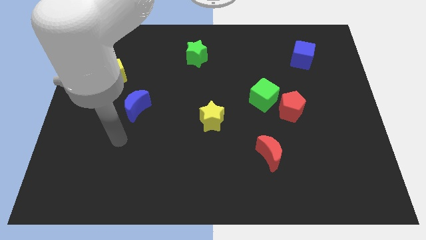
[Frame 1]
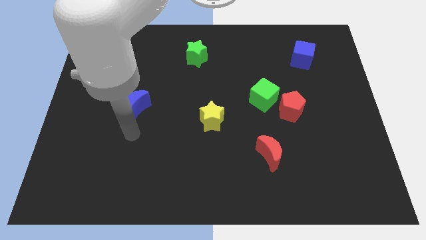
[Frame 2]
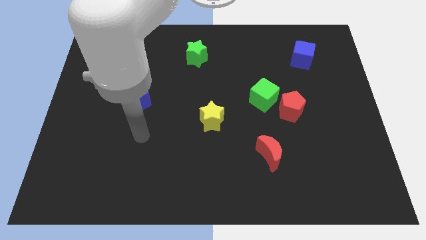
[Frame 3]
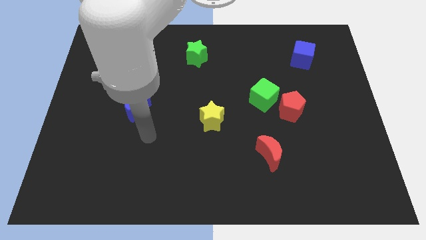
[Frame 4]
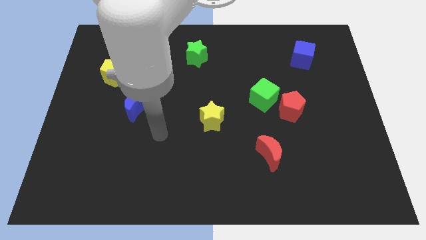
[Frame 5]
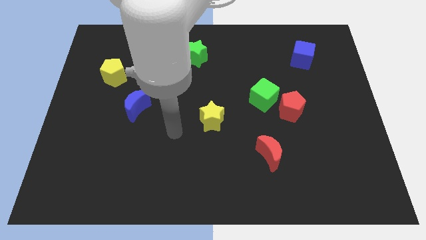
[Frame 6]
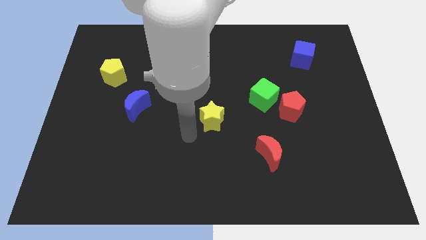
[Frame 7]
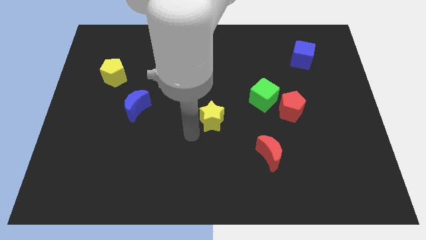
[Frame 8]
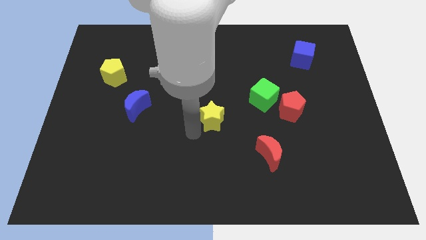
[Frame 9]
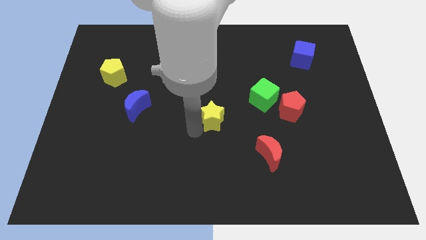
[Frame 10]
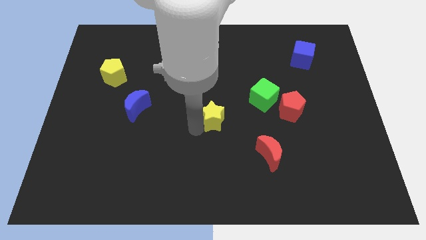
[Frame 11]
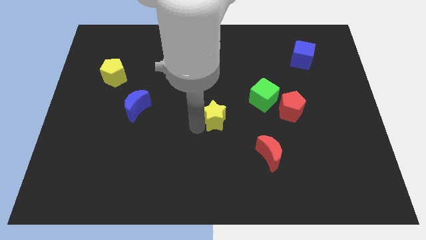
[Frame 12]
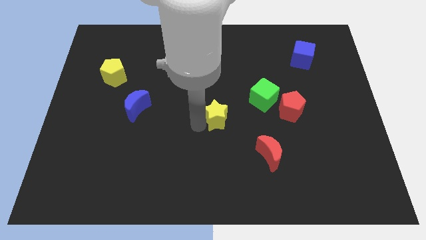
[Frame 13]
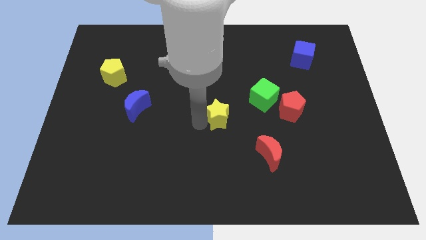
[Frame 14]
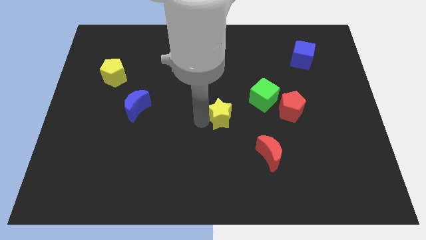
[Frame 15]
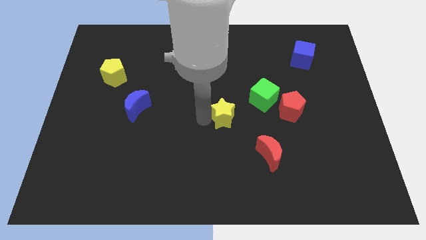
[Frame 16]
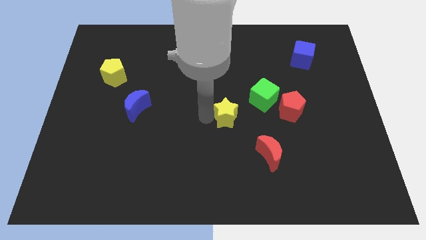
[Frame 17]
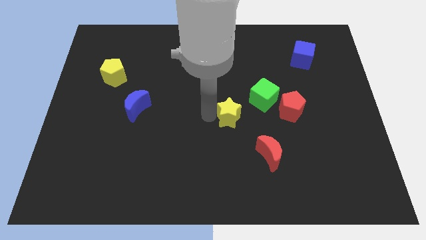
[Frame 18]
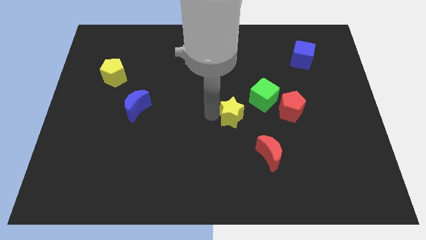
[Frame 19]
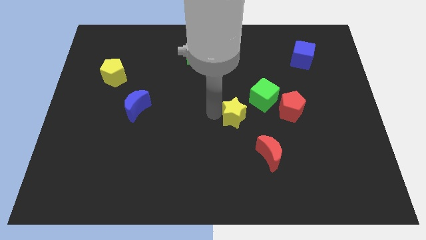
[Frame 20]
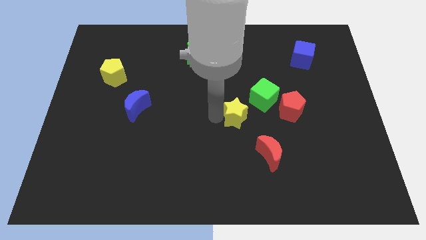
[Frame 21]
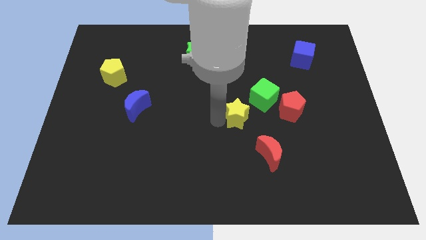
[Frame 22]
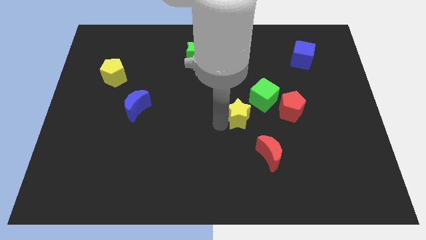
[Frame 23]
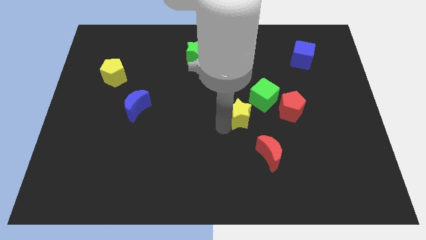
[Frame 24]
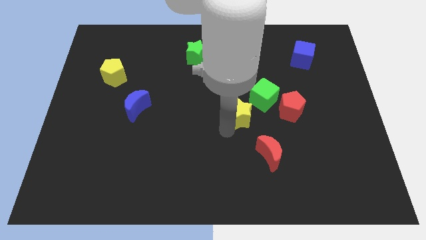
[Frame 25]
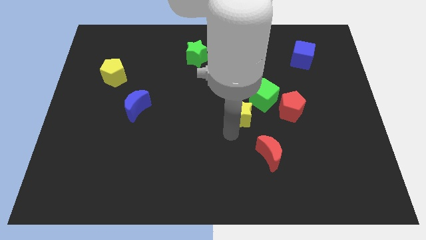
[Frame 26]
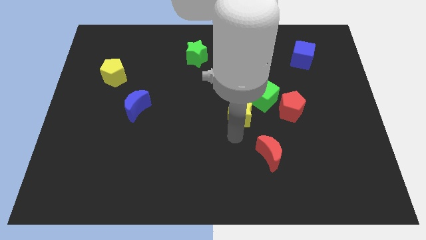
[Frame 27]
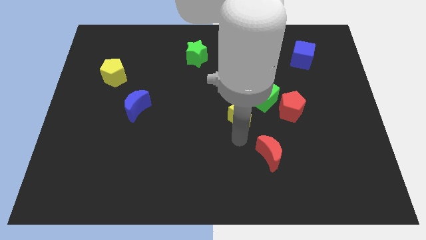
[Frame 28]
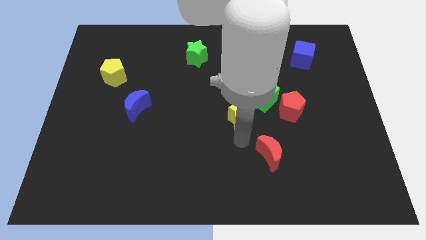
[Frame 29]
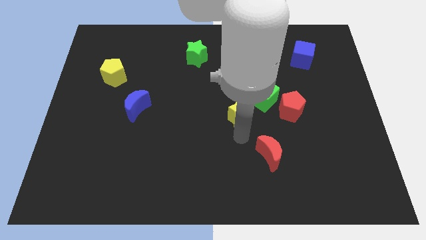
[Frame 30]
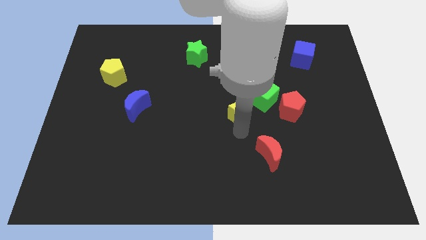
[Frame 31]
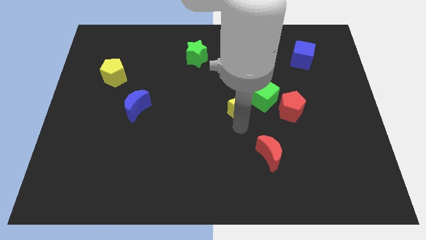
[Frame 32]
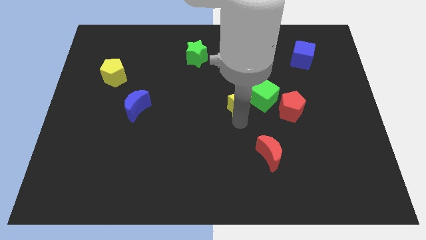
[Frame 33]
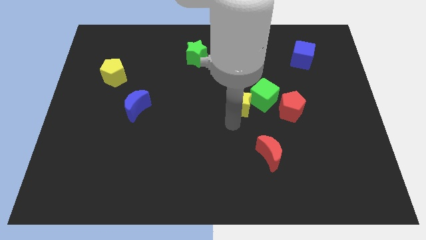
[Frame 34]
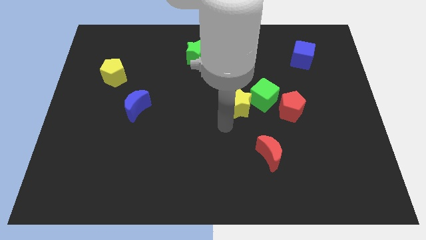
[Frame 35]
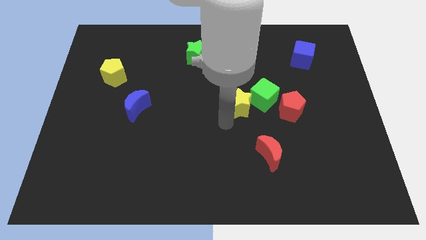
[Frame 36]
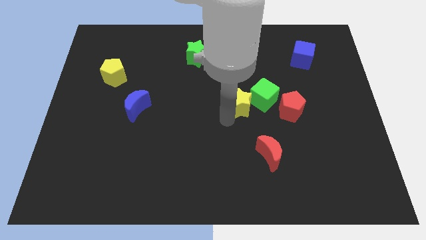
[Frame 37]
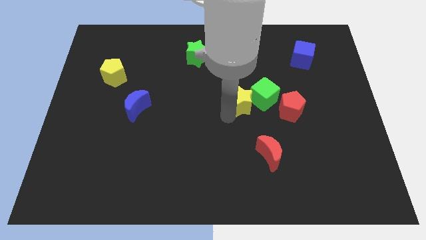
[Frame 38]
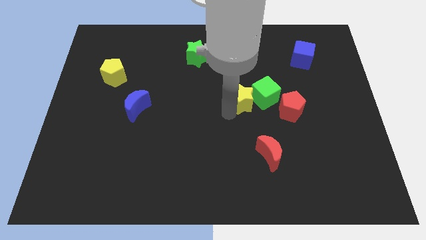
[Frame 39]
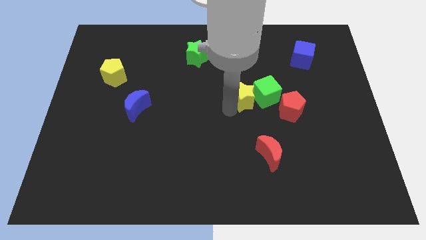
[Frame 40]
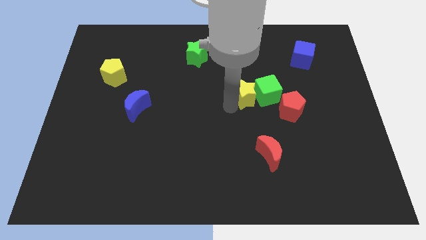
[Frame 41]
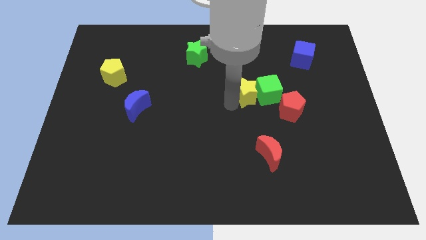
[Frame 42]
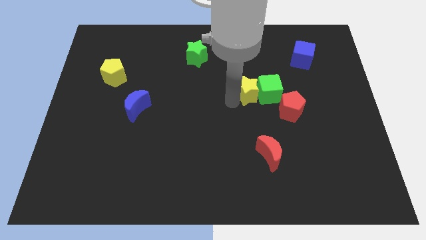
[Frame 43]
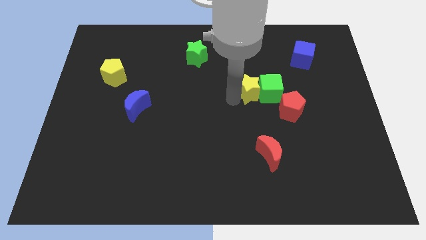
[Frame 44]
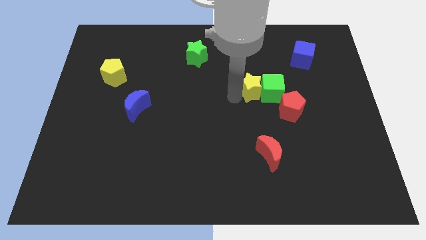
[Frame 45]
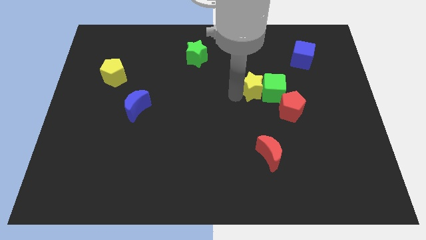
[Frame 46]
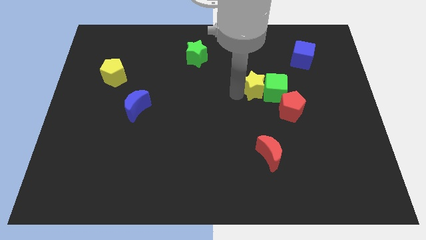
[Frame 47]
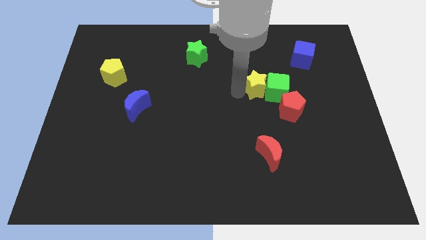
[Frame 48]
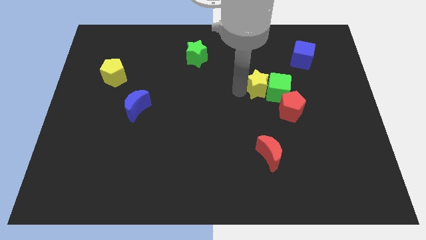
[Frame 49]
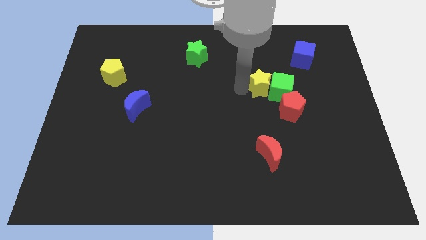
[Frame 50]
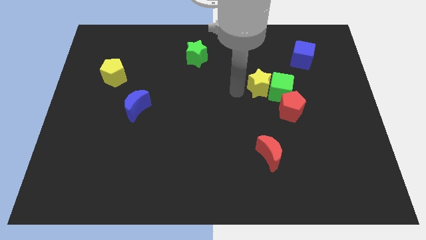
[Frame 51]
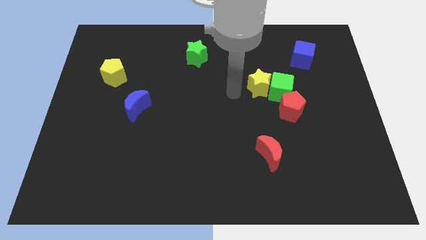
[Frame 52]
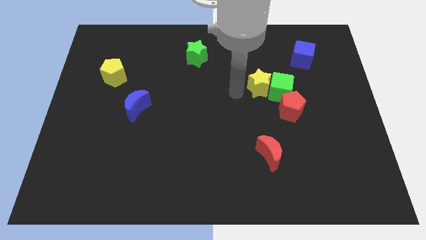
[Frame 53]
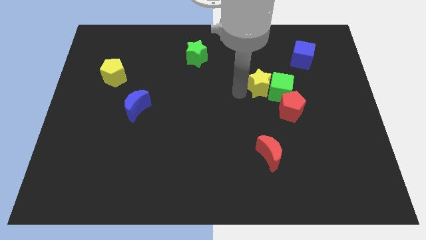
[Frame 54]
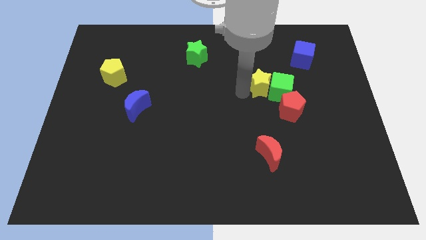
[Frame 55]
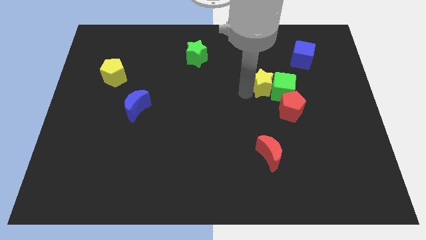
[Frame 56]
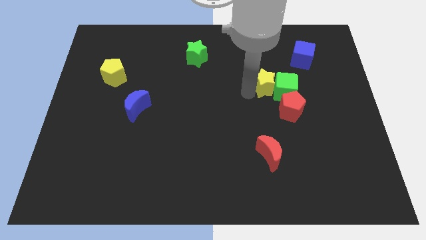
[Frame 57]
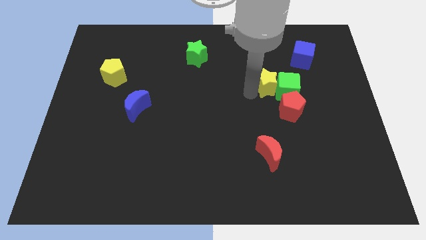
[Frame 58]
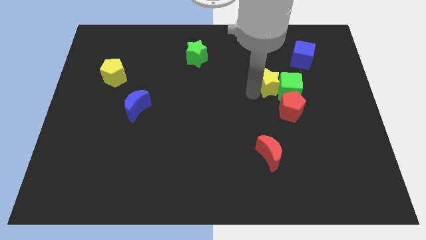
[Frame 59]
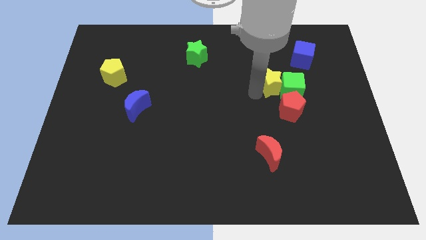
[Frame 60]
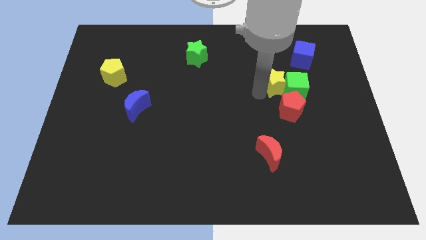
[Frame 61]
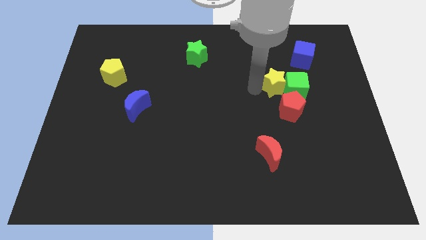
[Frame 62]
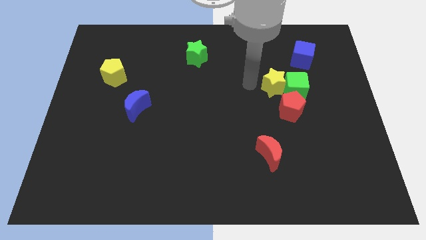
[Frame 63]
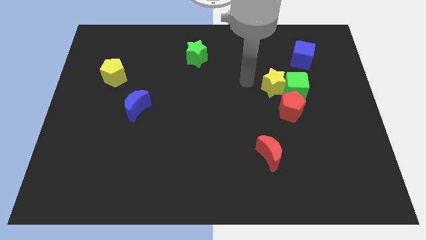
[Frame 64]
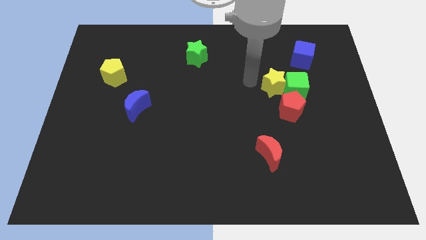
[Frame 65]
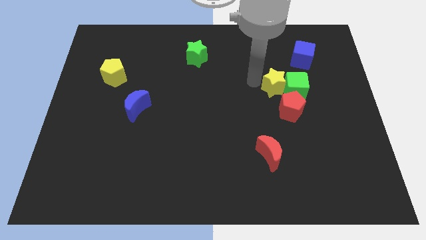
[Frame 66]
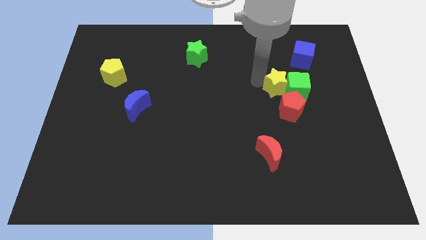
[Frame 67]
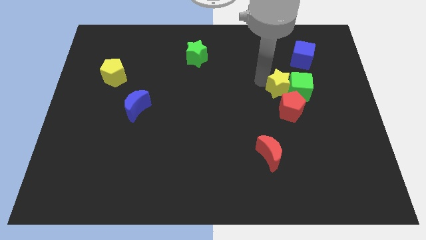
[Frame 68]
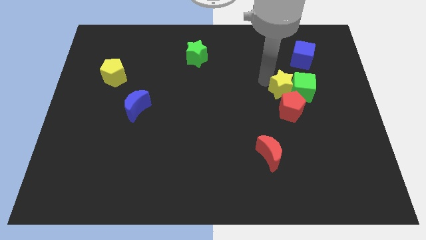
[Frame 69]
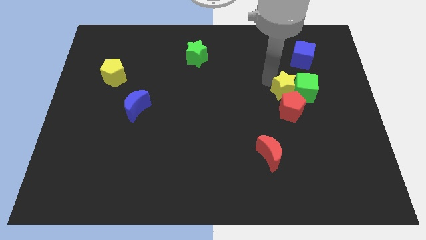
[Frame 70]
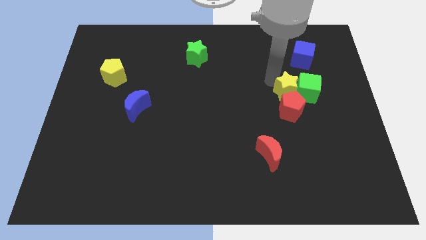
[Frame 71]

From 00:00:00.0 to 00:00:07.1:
slide the yellow star diagonally up and to the right of the red pentagon
